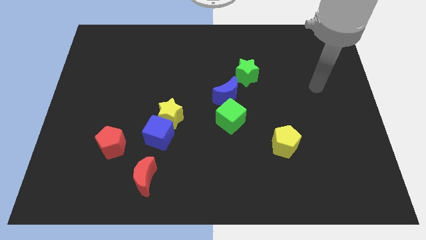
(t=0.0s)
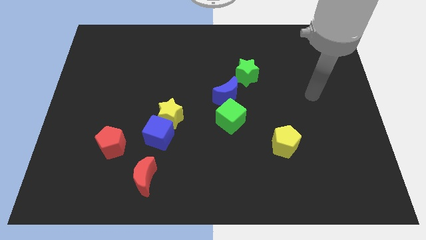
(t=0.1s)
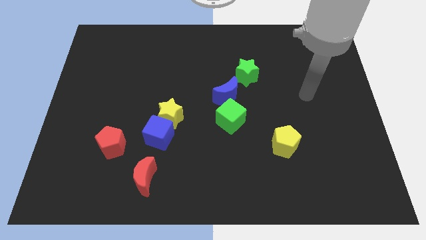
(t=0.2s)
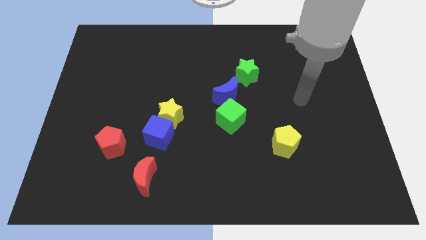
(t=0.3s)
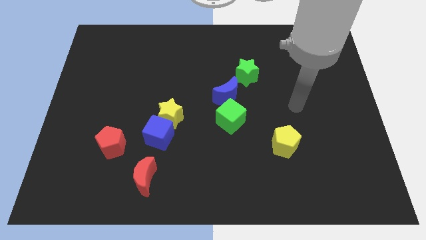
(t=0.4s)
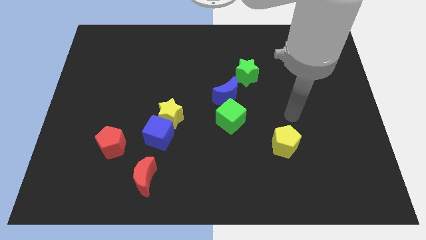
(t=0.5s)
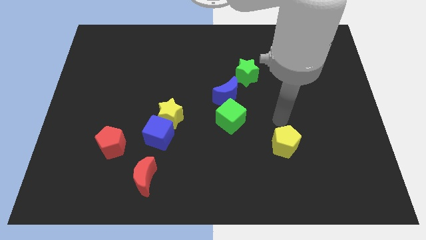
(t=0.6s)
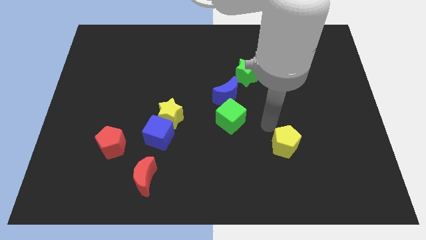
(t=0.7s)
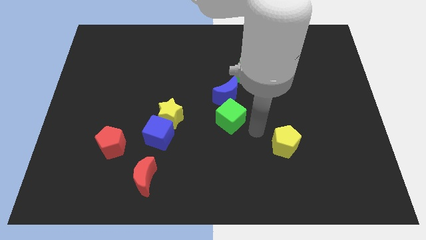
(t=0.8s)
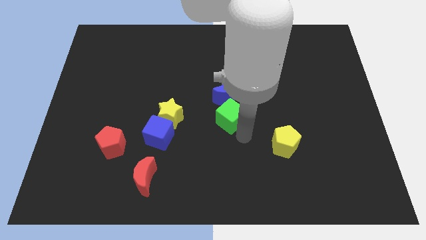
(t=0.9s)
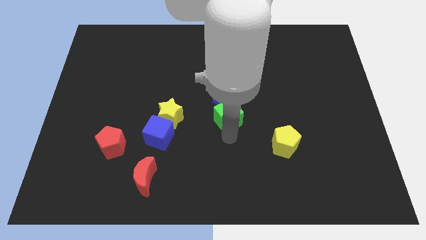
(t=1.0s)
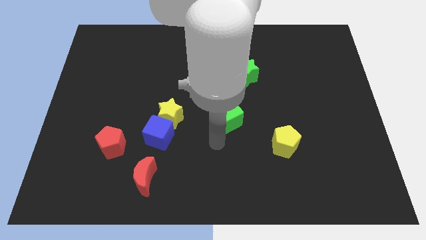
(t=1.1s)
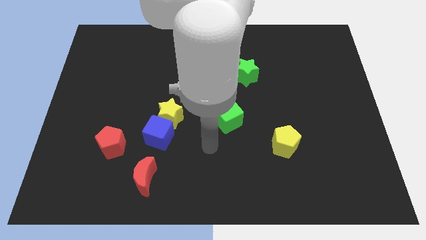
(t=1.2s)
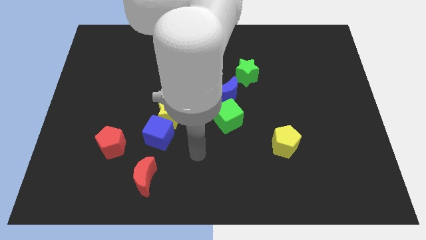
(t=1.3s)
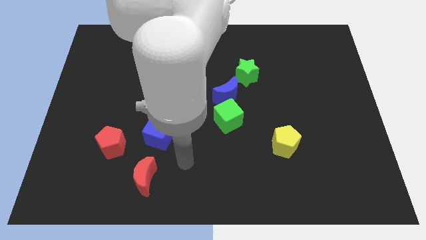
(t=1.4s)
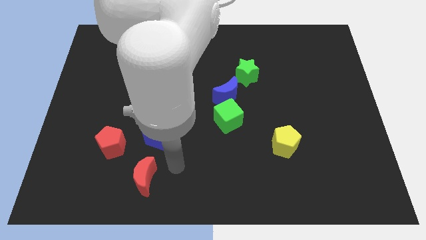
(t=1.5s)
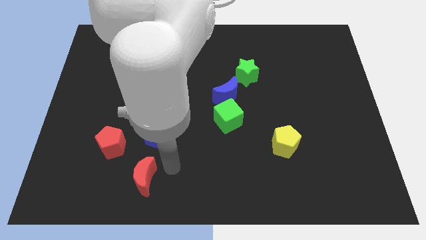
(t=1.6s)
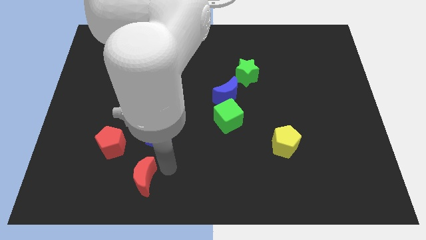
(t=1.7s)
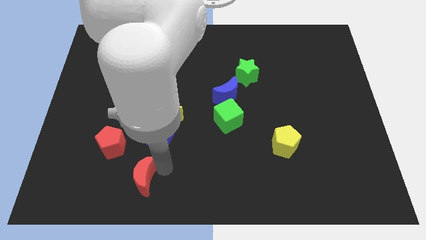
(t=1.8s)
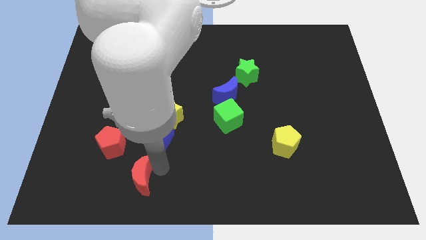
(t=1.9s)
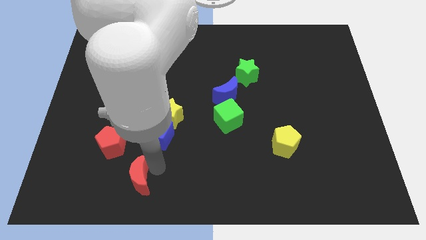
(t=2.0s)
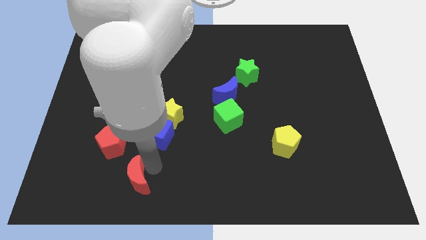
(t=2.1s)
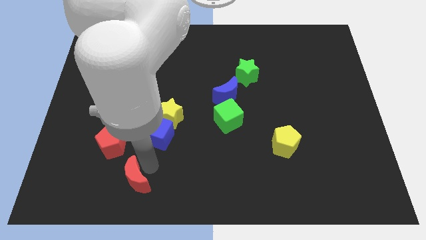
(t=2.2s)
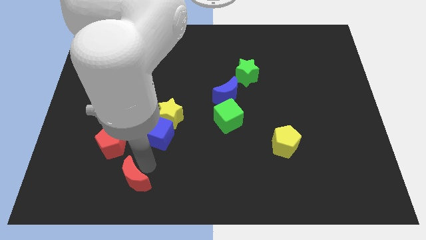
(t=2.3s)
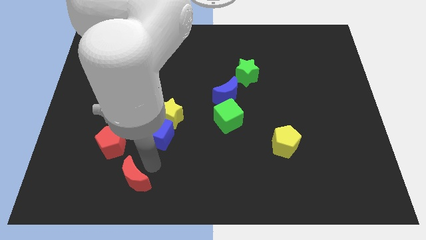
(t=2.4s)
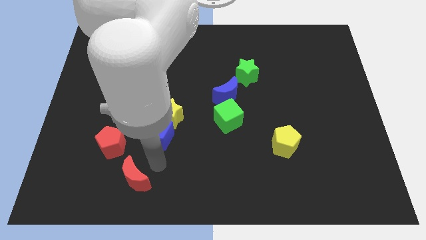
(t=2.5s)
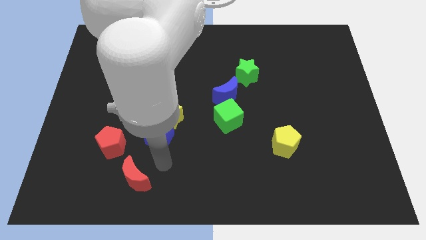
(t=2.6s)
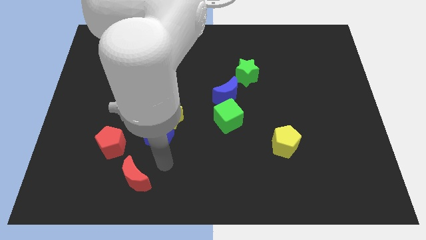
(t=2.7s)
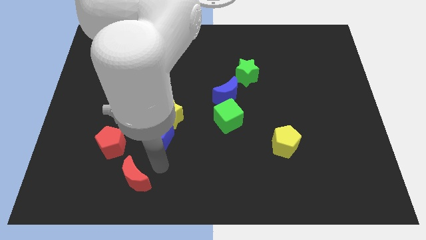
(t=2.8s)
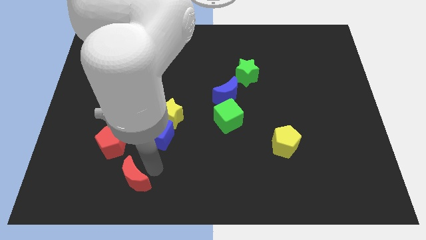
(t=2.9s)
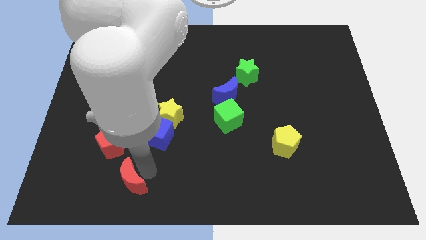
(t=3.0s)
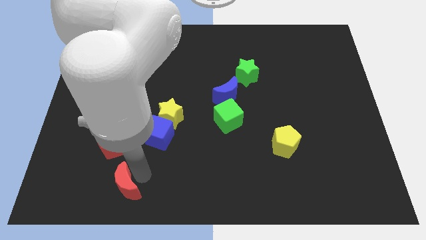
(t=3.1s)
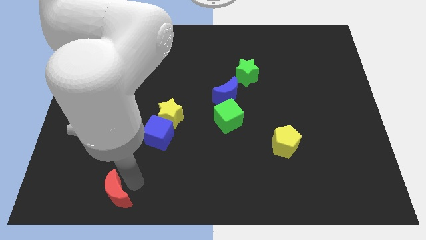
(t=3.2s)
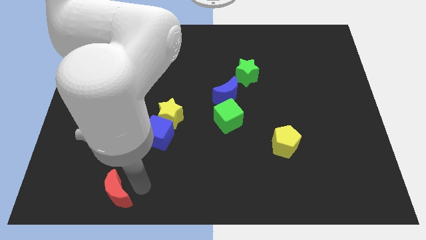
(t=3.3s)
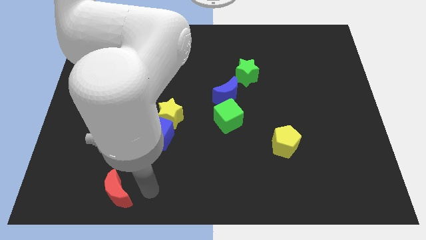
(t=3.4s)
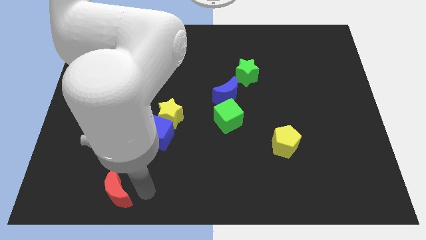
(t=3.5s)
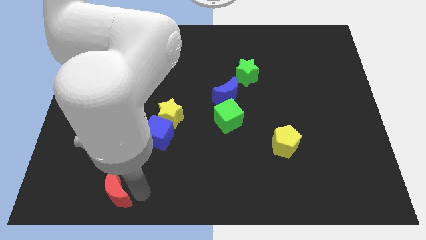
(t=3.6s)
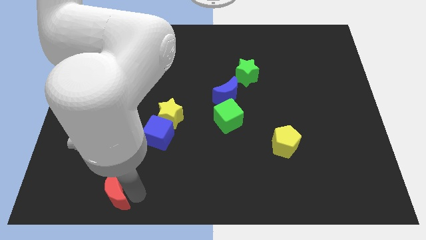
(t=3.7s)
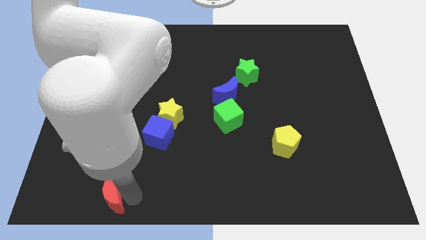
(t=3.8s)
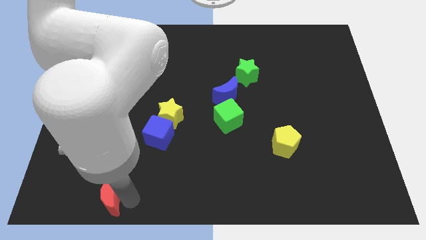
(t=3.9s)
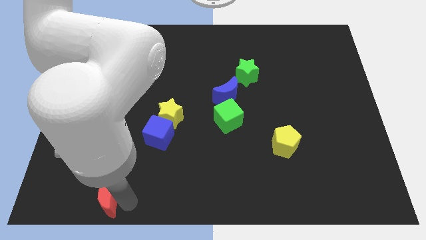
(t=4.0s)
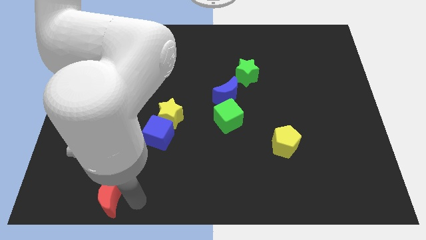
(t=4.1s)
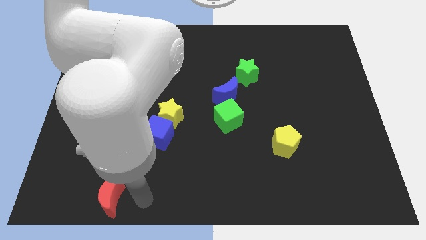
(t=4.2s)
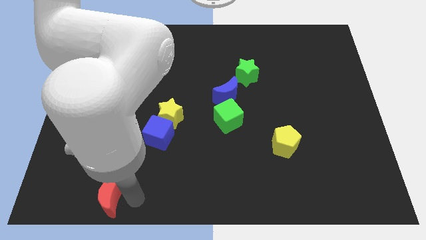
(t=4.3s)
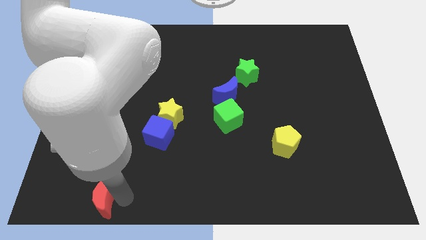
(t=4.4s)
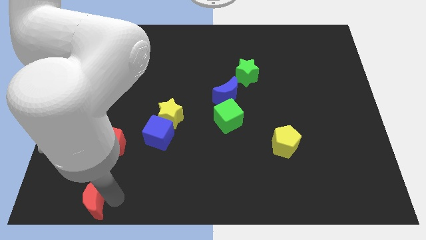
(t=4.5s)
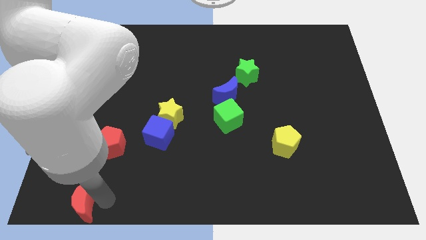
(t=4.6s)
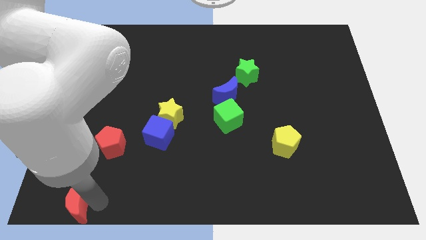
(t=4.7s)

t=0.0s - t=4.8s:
move the red moon to the bottom left of the board

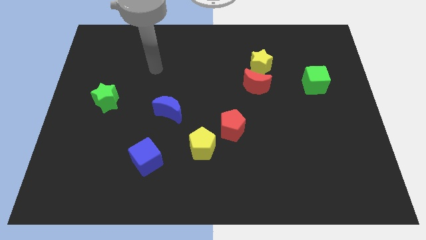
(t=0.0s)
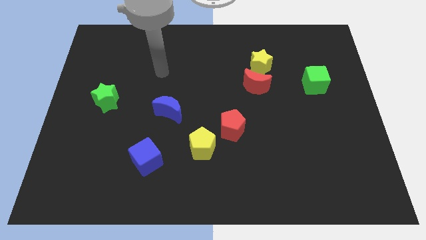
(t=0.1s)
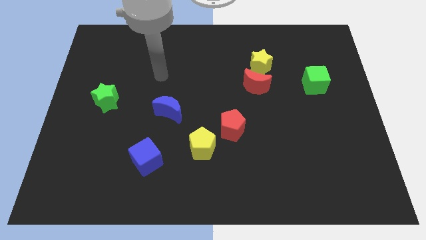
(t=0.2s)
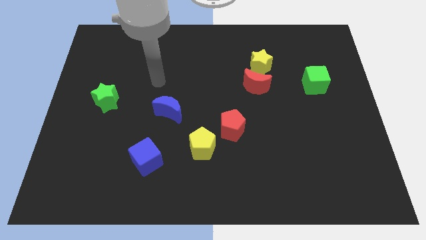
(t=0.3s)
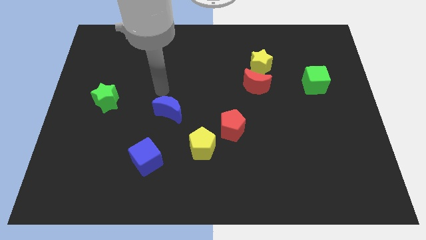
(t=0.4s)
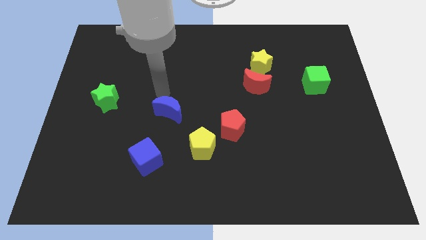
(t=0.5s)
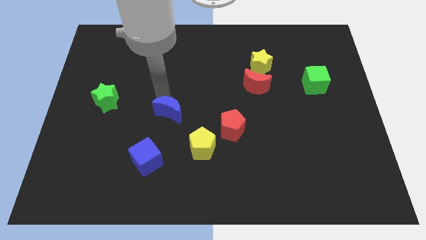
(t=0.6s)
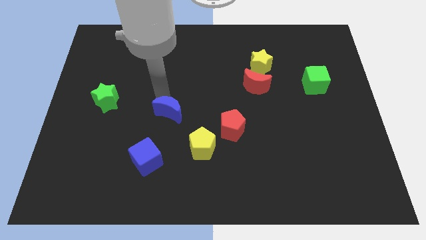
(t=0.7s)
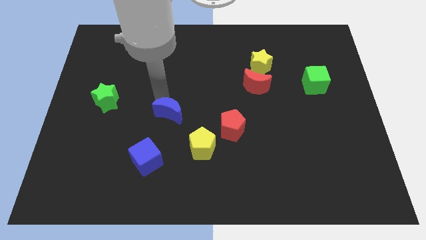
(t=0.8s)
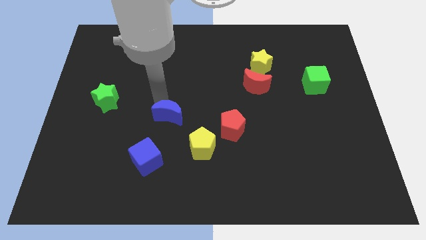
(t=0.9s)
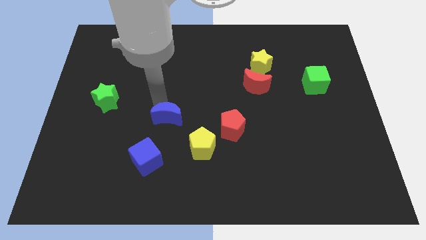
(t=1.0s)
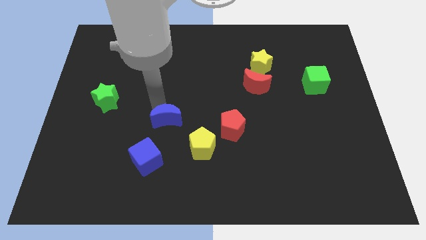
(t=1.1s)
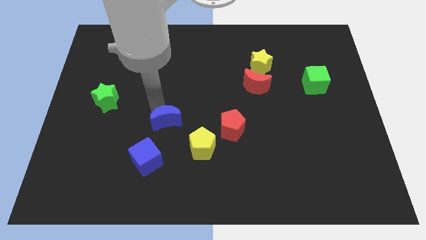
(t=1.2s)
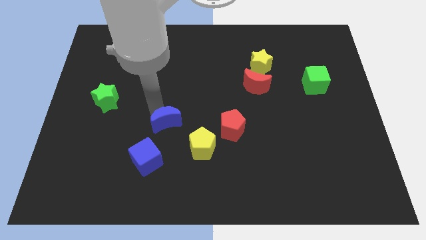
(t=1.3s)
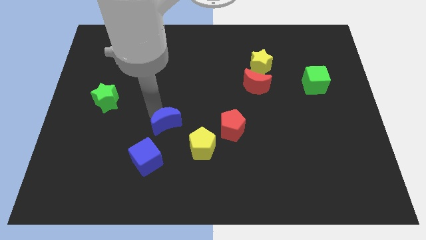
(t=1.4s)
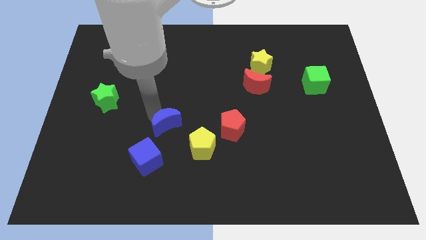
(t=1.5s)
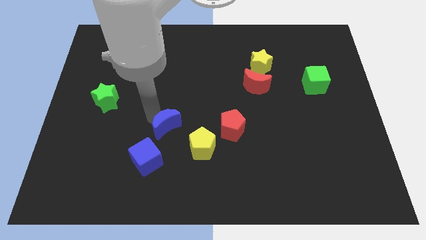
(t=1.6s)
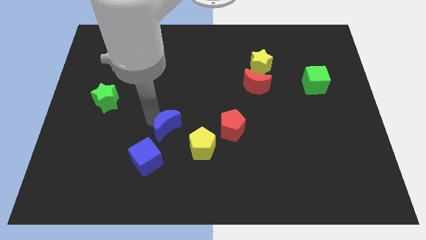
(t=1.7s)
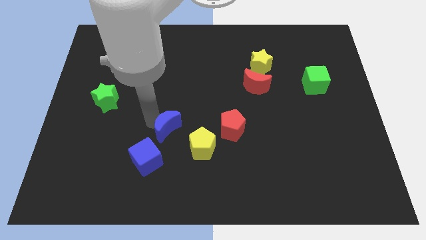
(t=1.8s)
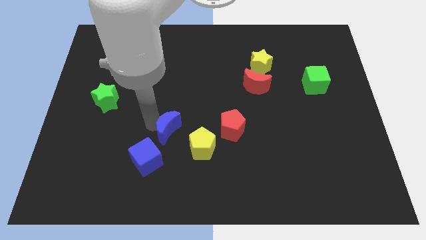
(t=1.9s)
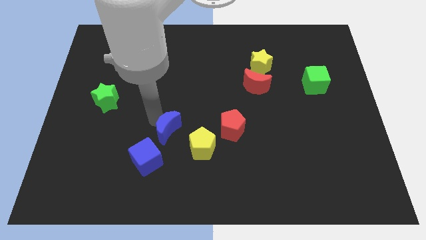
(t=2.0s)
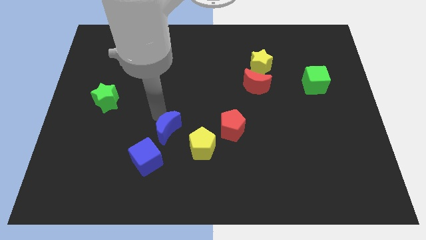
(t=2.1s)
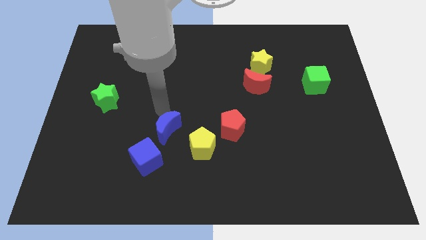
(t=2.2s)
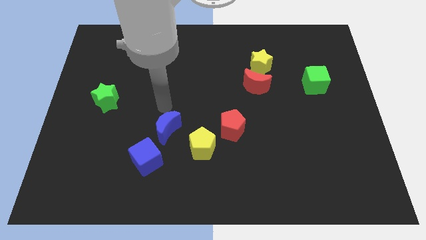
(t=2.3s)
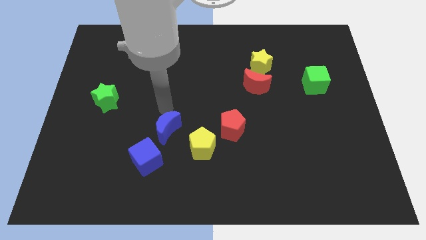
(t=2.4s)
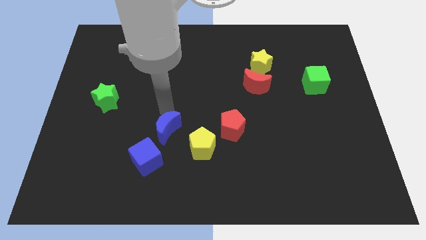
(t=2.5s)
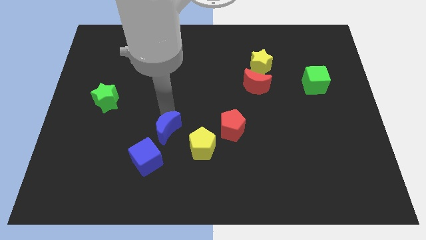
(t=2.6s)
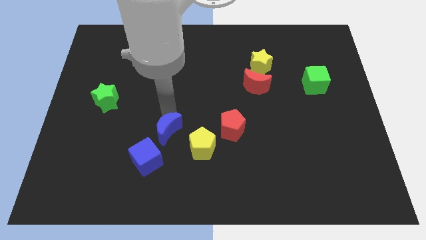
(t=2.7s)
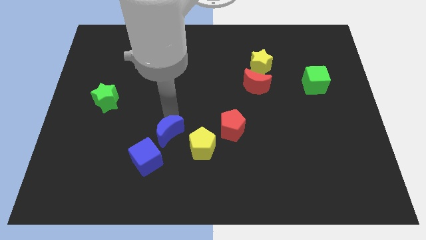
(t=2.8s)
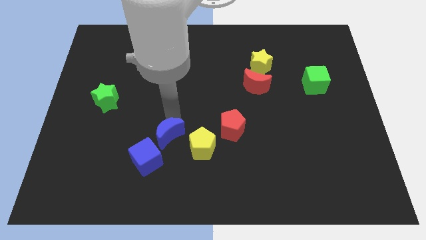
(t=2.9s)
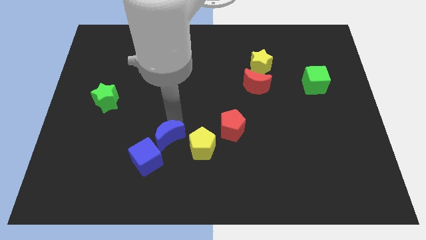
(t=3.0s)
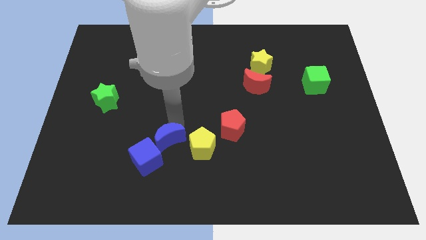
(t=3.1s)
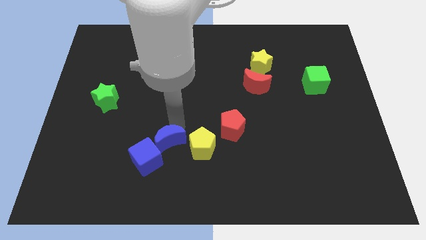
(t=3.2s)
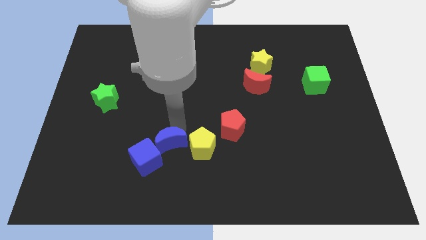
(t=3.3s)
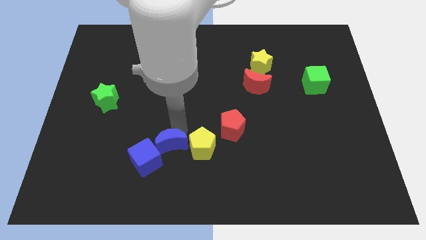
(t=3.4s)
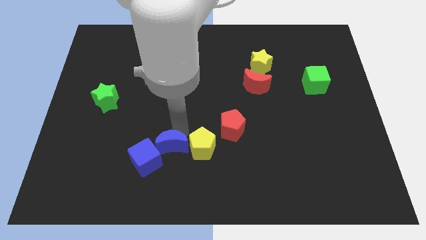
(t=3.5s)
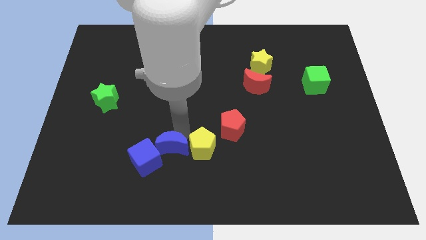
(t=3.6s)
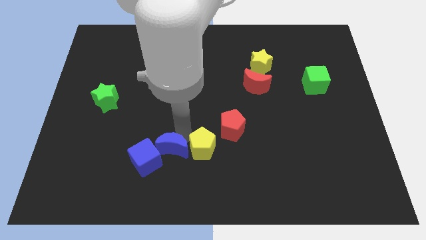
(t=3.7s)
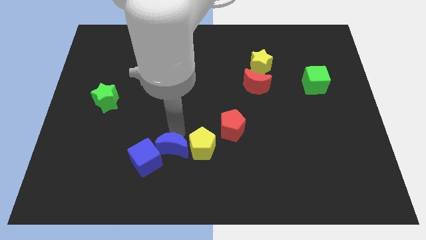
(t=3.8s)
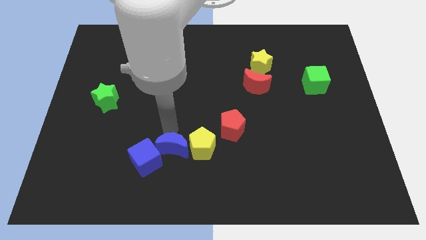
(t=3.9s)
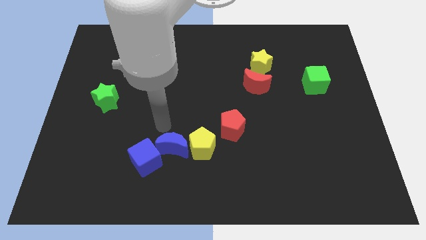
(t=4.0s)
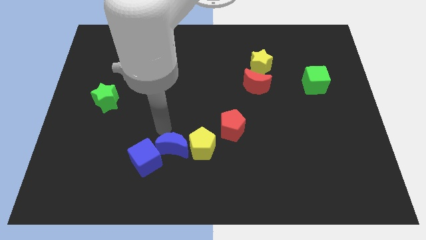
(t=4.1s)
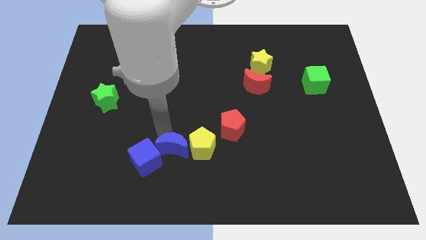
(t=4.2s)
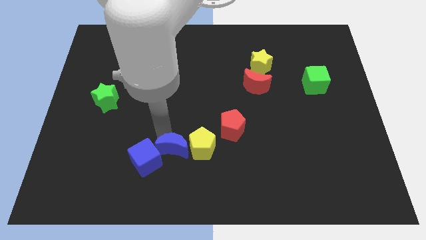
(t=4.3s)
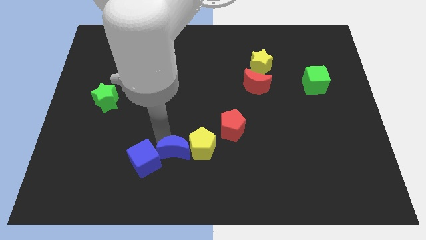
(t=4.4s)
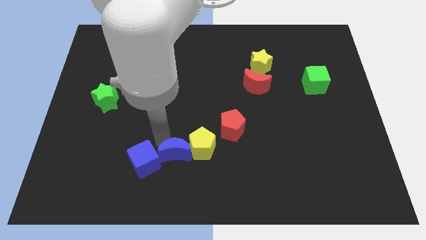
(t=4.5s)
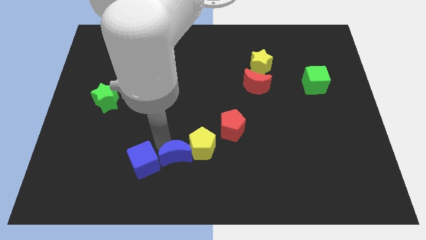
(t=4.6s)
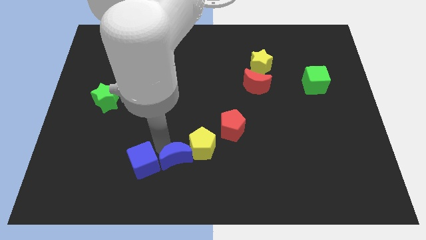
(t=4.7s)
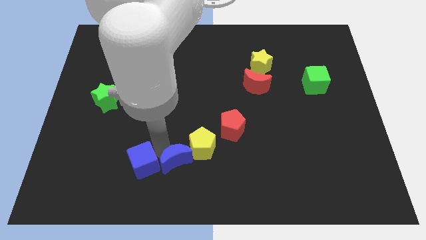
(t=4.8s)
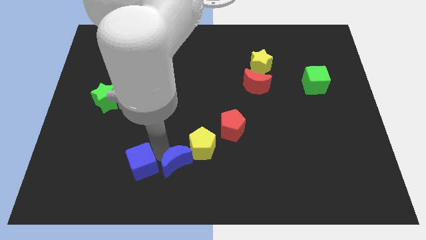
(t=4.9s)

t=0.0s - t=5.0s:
push the blue moon to the bottom side
